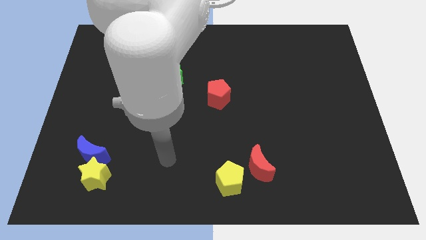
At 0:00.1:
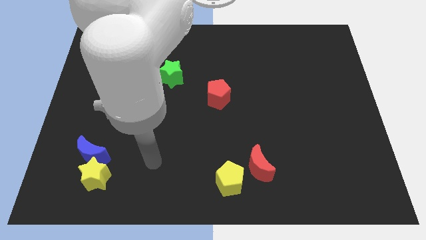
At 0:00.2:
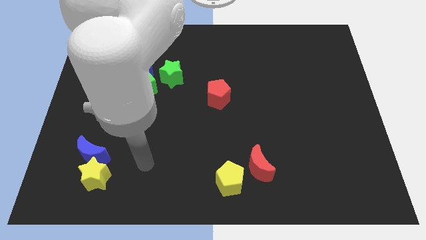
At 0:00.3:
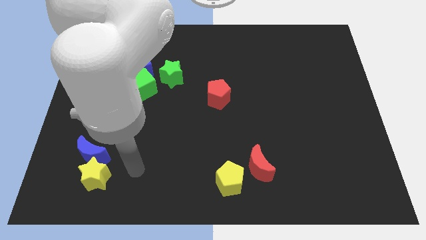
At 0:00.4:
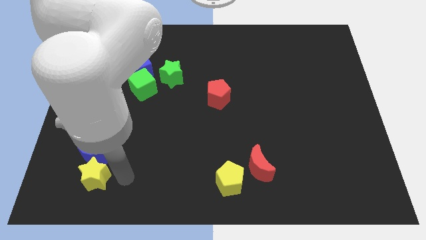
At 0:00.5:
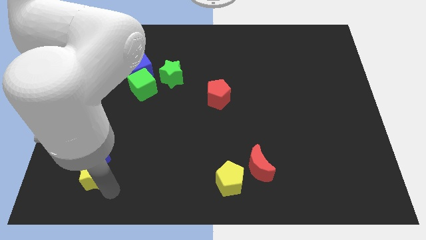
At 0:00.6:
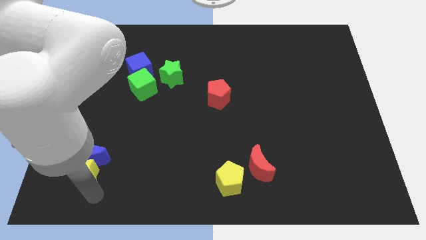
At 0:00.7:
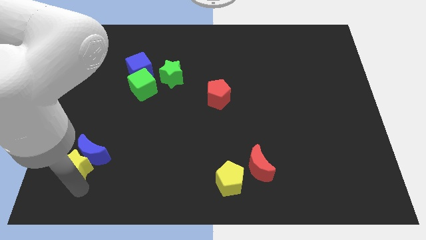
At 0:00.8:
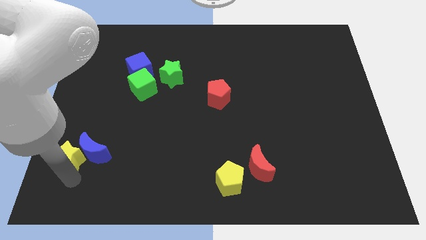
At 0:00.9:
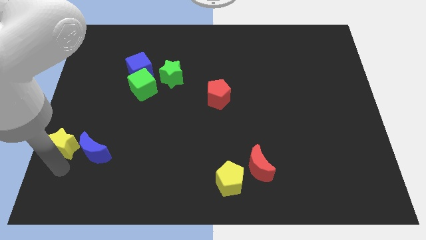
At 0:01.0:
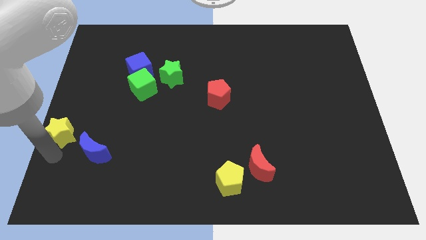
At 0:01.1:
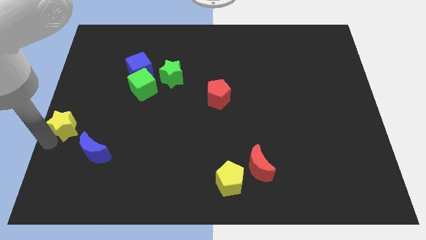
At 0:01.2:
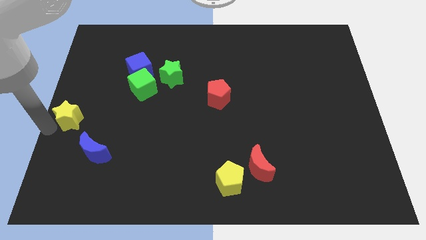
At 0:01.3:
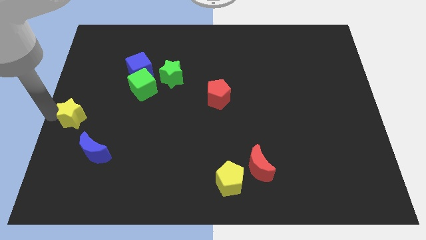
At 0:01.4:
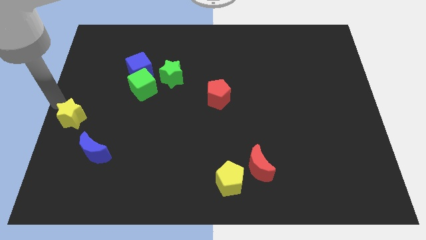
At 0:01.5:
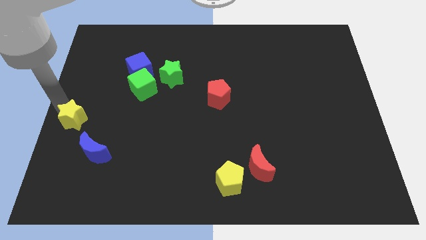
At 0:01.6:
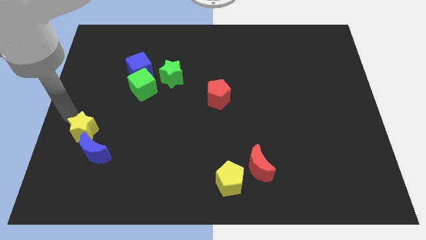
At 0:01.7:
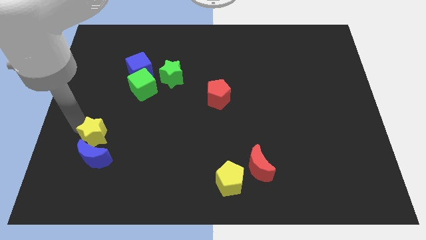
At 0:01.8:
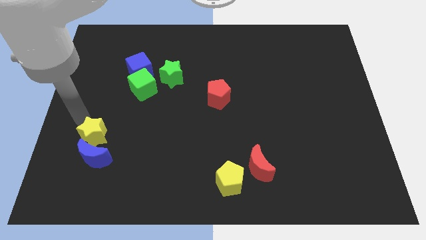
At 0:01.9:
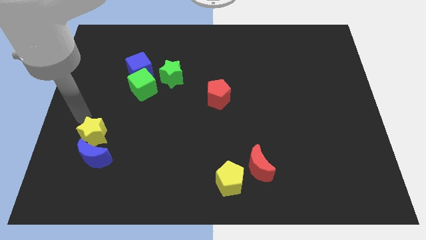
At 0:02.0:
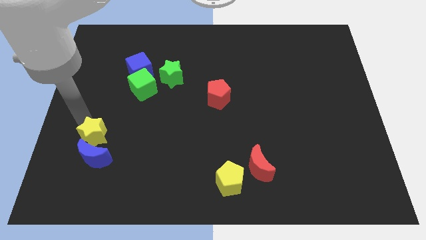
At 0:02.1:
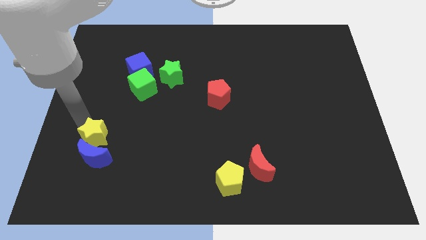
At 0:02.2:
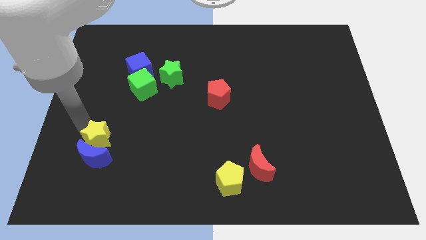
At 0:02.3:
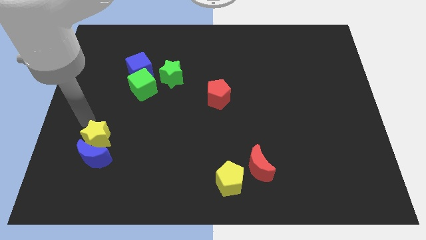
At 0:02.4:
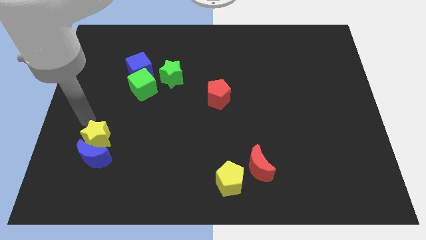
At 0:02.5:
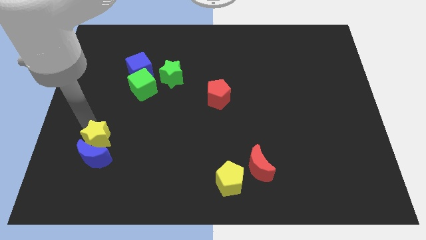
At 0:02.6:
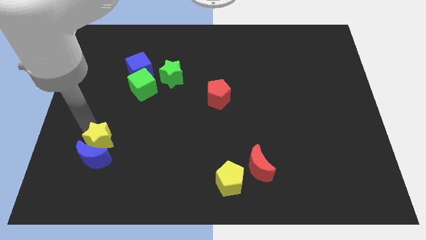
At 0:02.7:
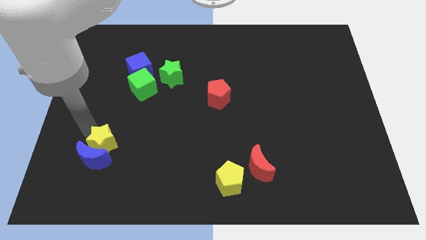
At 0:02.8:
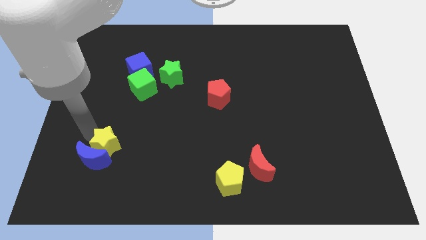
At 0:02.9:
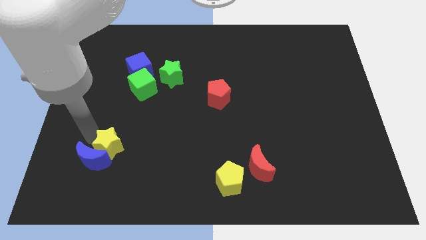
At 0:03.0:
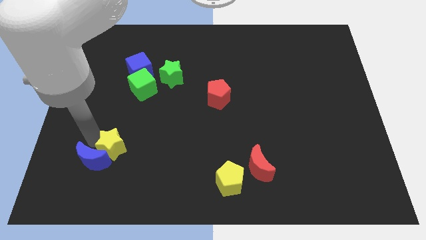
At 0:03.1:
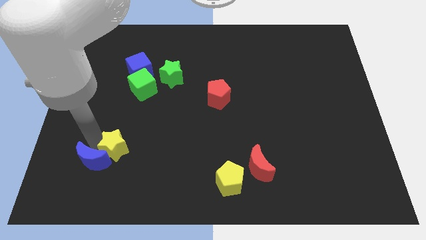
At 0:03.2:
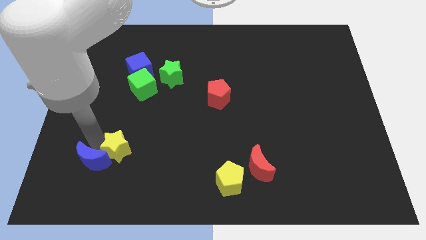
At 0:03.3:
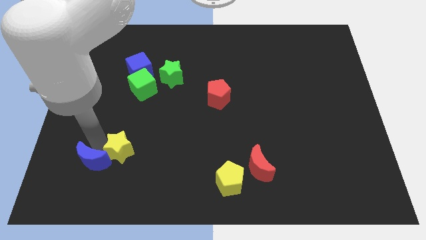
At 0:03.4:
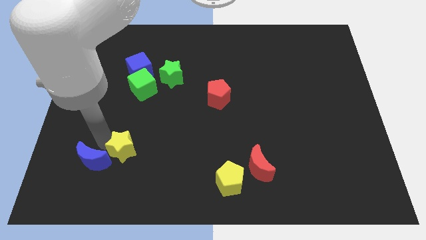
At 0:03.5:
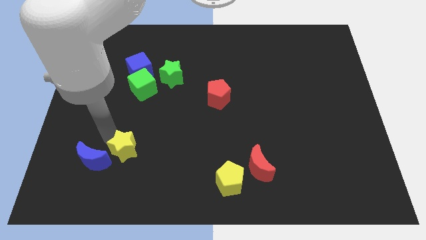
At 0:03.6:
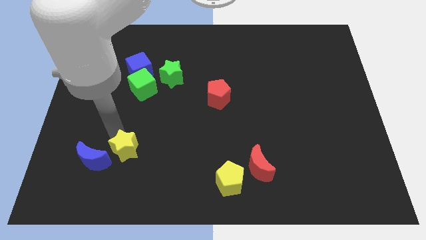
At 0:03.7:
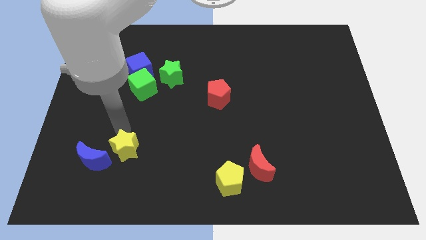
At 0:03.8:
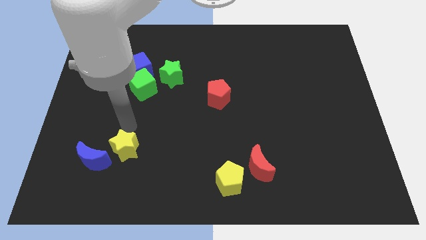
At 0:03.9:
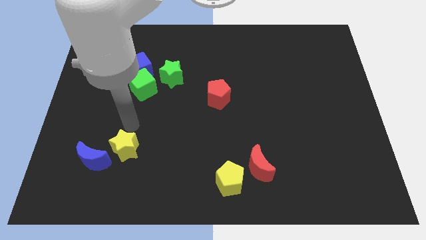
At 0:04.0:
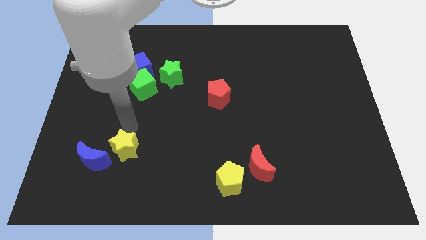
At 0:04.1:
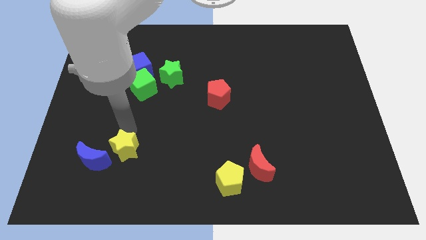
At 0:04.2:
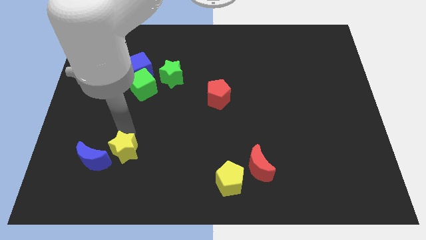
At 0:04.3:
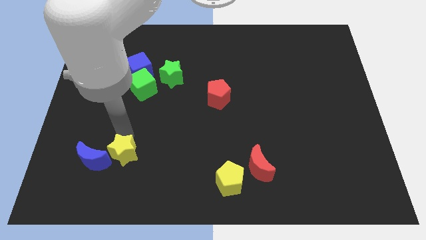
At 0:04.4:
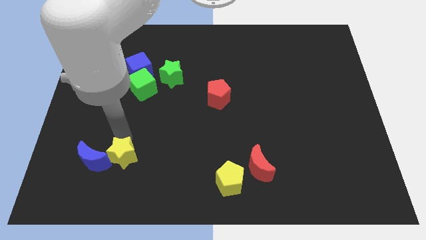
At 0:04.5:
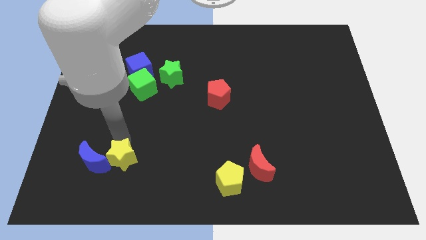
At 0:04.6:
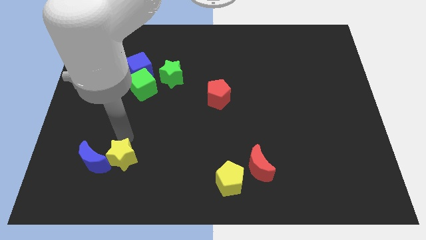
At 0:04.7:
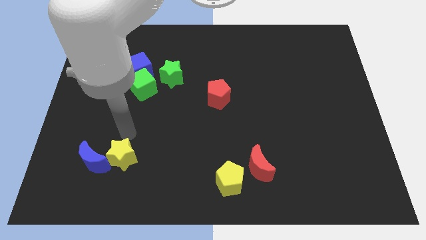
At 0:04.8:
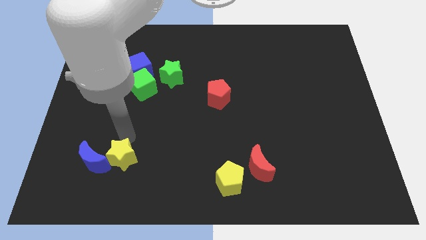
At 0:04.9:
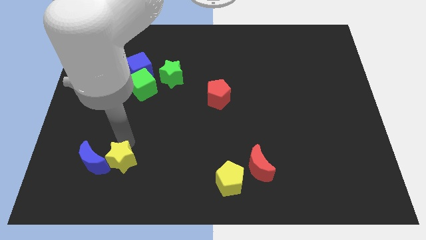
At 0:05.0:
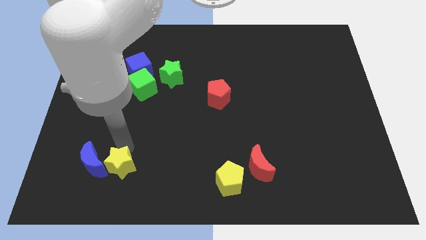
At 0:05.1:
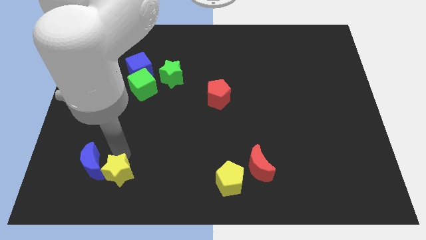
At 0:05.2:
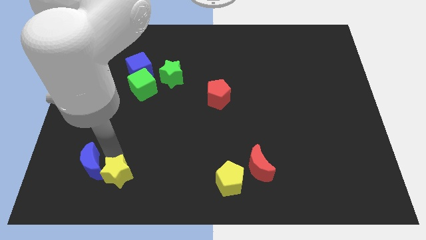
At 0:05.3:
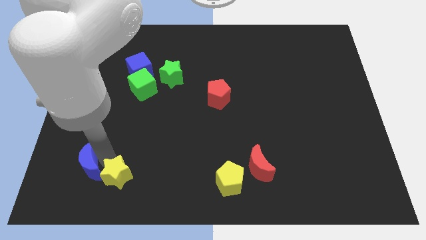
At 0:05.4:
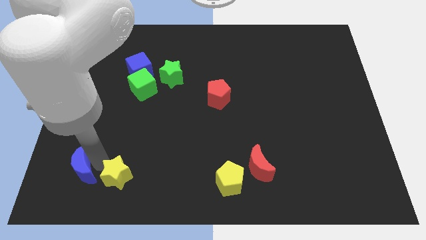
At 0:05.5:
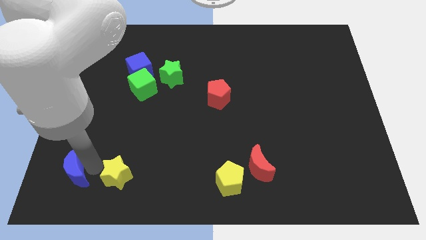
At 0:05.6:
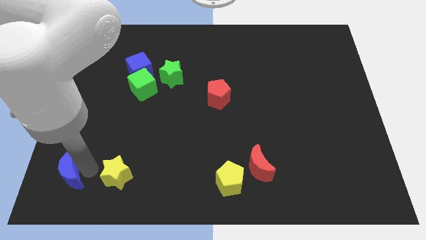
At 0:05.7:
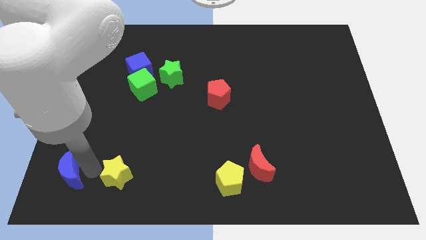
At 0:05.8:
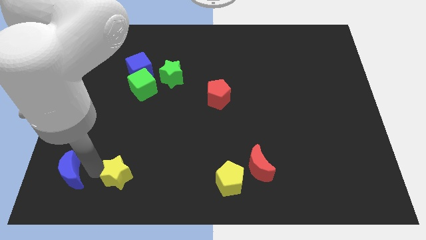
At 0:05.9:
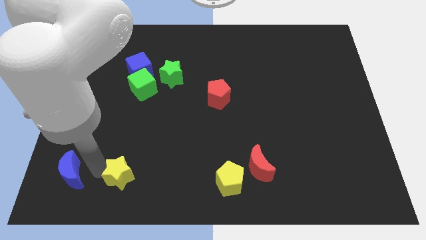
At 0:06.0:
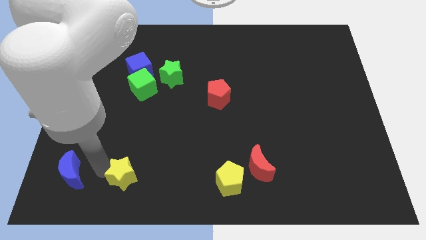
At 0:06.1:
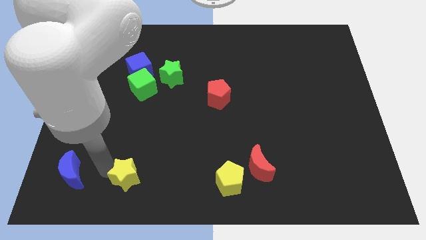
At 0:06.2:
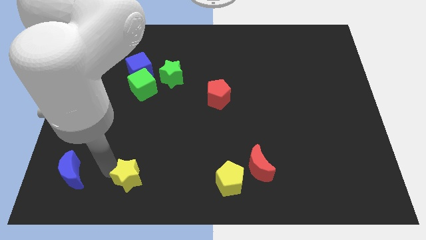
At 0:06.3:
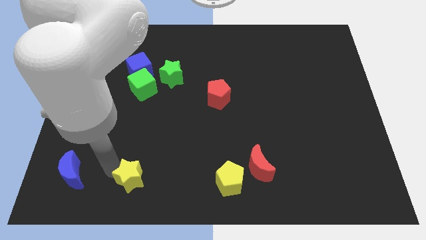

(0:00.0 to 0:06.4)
move the yellow star somewhat right

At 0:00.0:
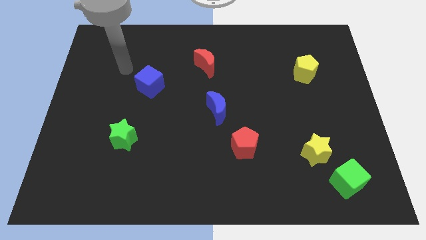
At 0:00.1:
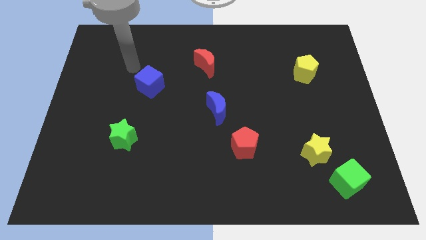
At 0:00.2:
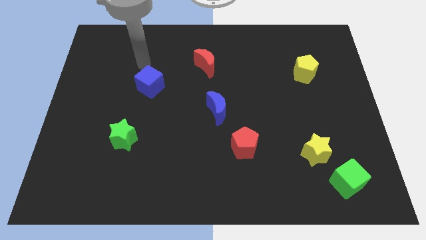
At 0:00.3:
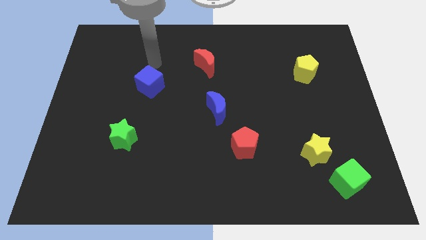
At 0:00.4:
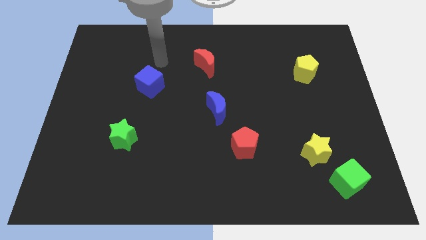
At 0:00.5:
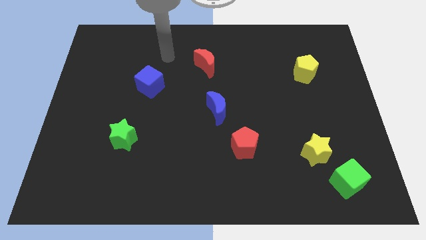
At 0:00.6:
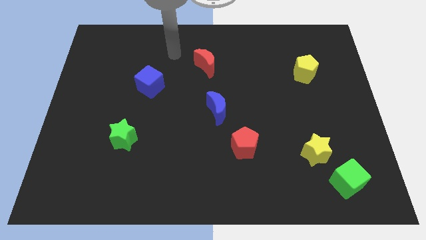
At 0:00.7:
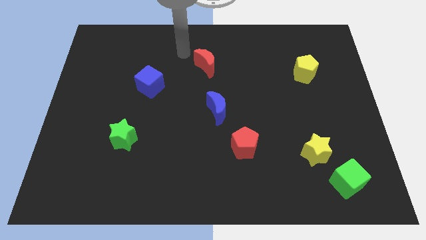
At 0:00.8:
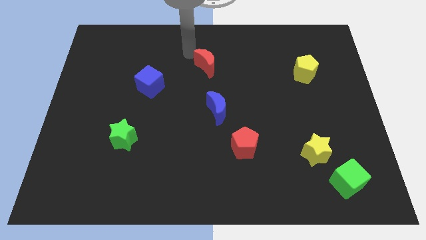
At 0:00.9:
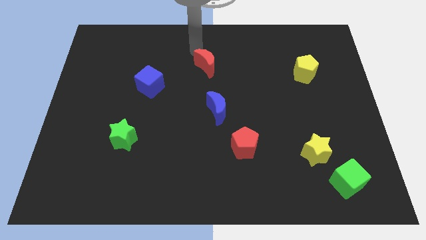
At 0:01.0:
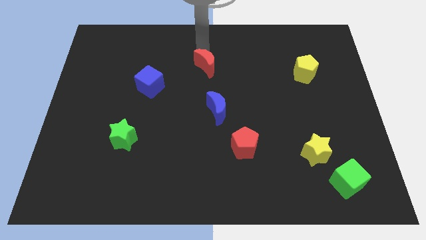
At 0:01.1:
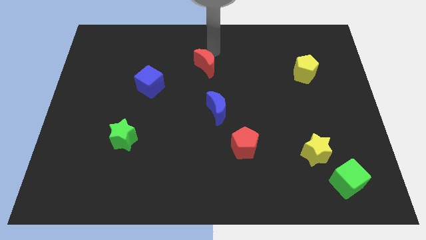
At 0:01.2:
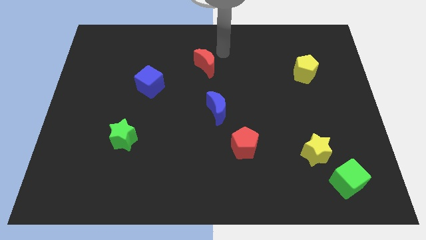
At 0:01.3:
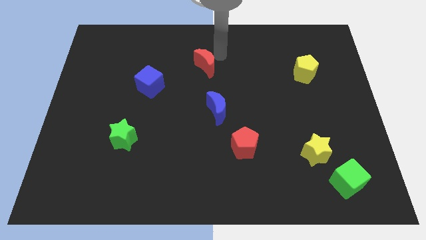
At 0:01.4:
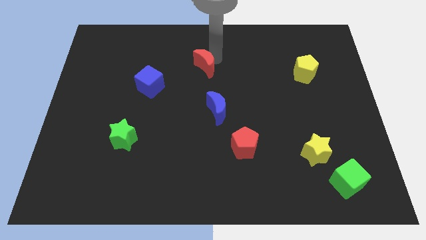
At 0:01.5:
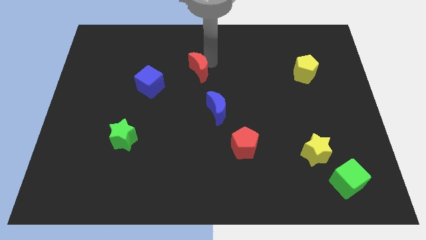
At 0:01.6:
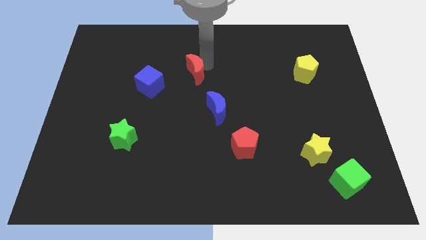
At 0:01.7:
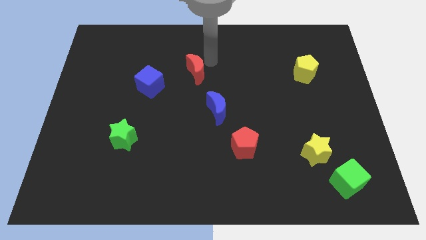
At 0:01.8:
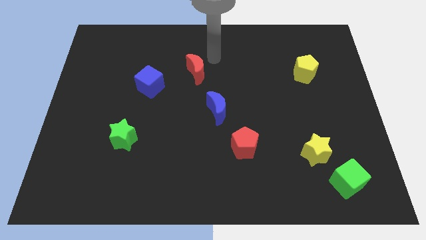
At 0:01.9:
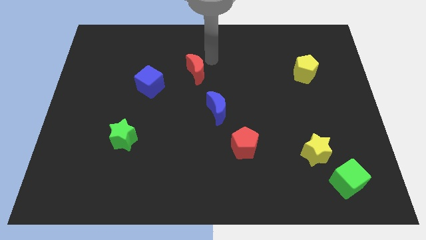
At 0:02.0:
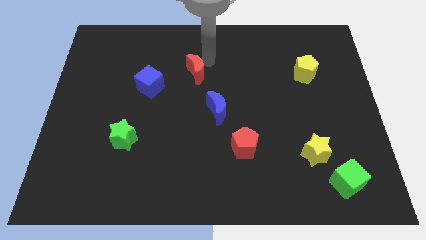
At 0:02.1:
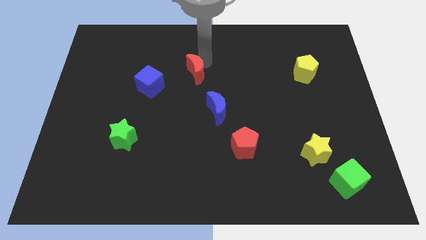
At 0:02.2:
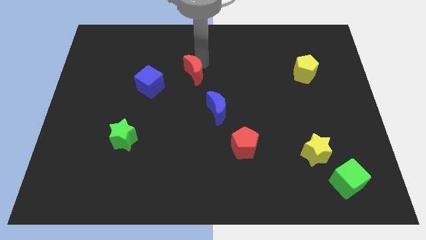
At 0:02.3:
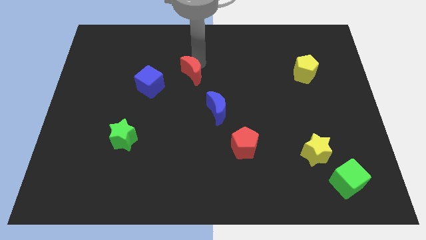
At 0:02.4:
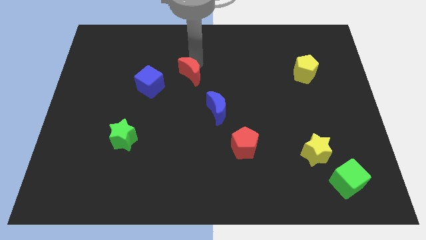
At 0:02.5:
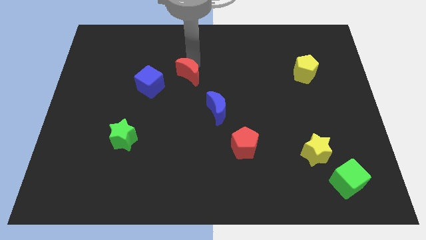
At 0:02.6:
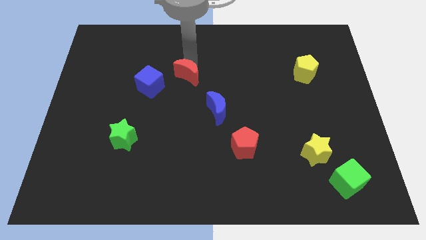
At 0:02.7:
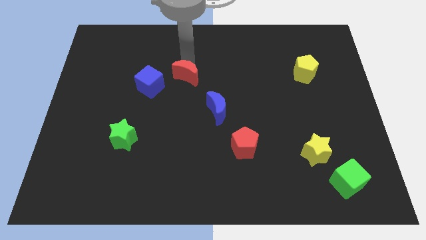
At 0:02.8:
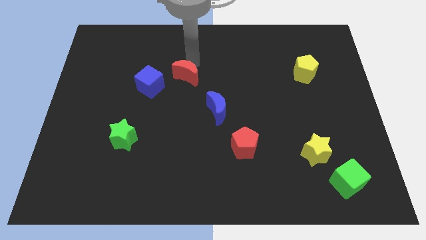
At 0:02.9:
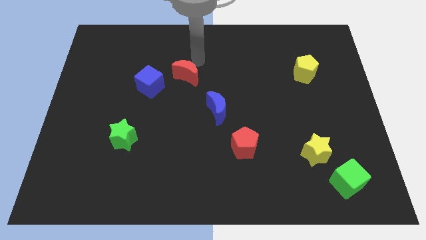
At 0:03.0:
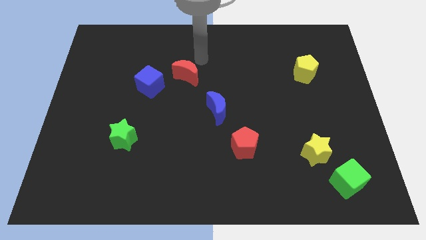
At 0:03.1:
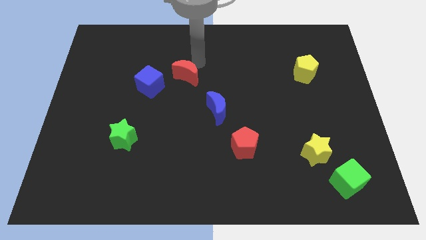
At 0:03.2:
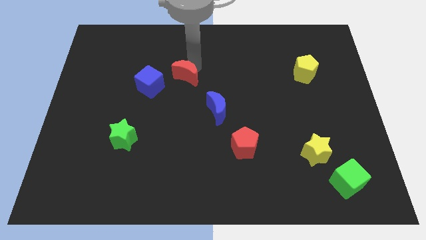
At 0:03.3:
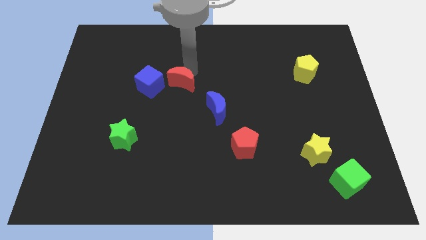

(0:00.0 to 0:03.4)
slide the red moon downwards and left a bit
